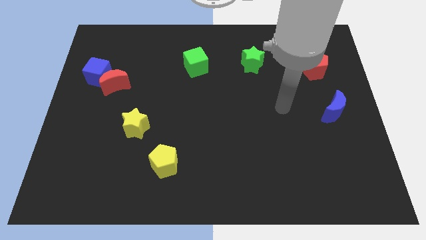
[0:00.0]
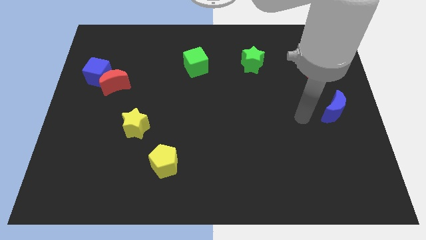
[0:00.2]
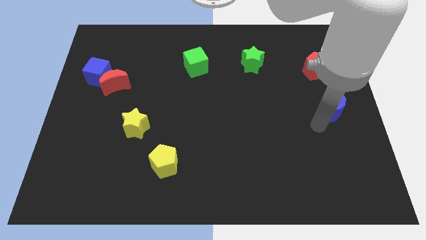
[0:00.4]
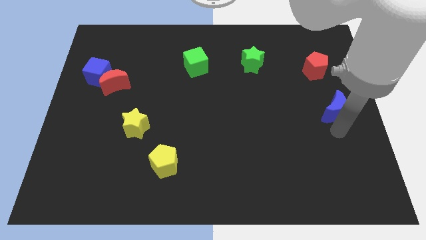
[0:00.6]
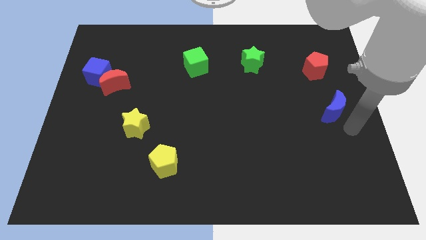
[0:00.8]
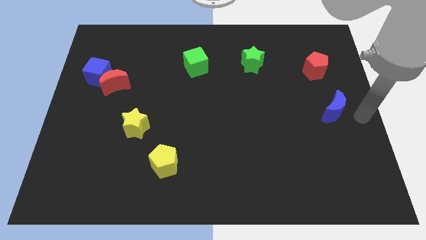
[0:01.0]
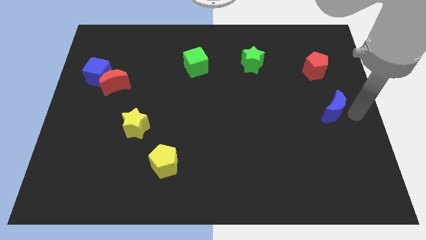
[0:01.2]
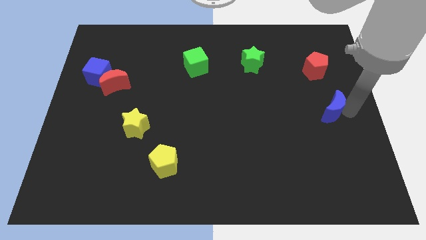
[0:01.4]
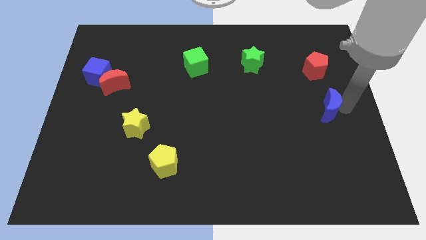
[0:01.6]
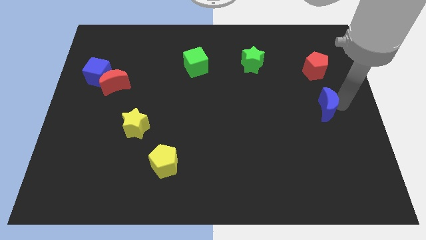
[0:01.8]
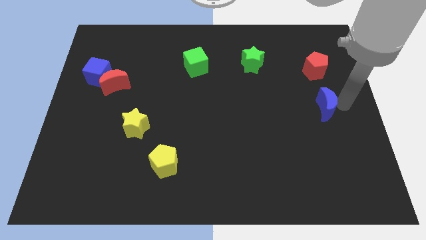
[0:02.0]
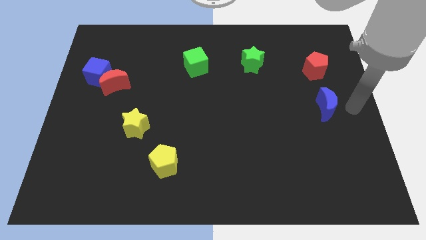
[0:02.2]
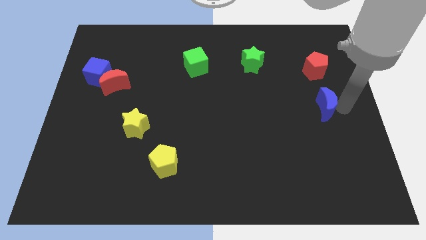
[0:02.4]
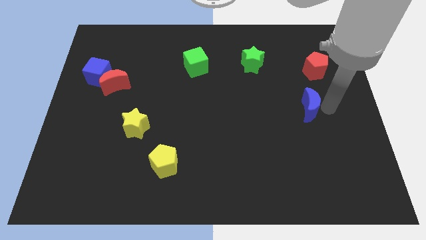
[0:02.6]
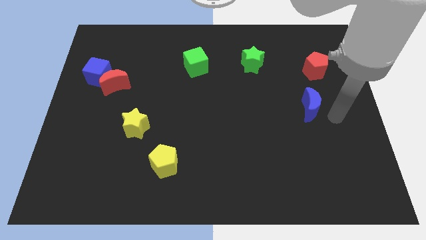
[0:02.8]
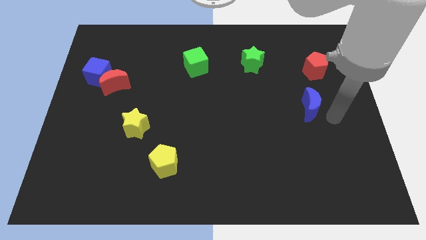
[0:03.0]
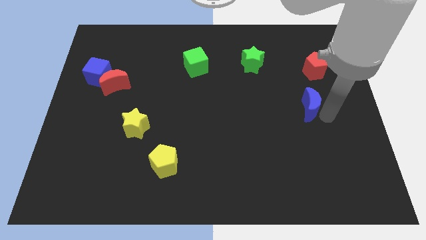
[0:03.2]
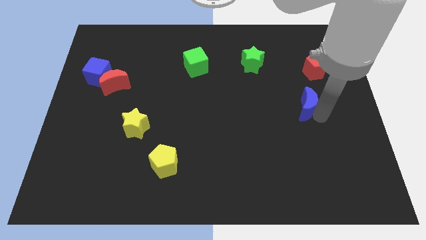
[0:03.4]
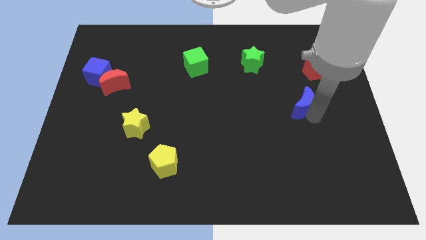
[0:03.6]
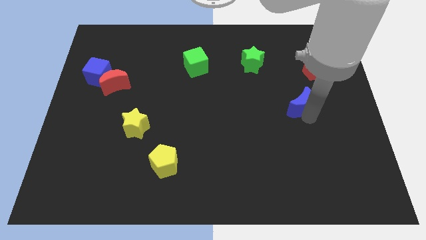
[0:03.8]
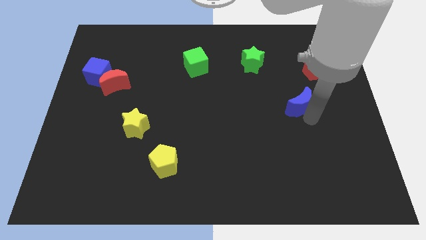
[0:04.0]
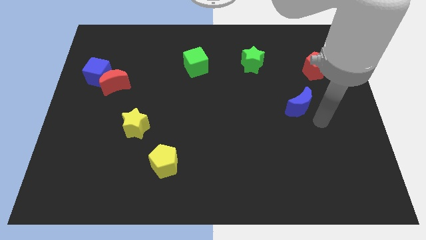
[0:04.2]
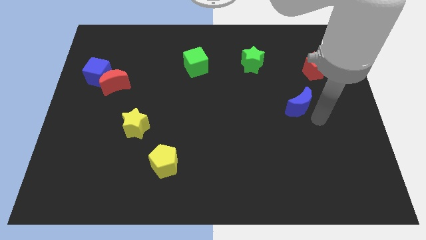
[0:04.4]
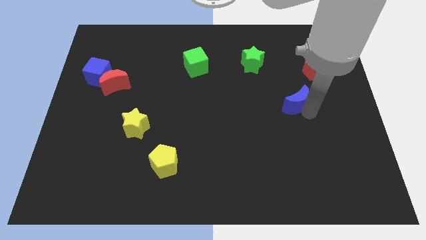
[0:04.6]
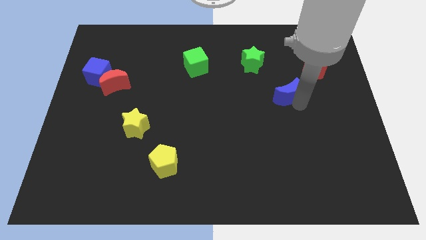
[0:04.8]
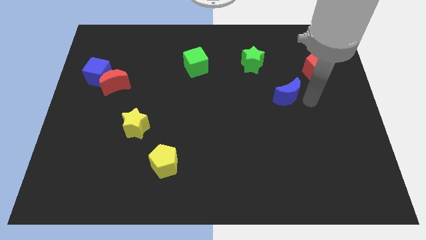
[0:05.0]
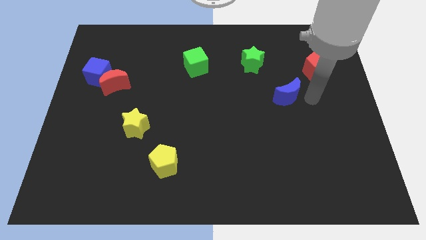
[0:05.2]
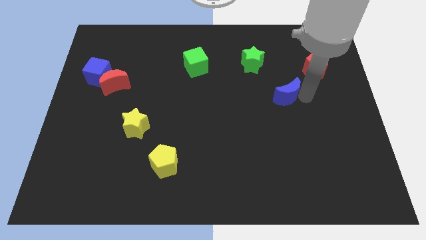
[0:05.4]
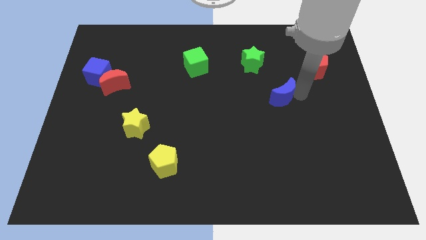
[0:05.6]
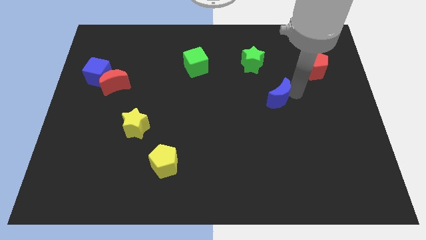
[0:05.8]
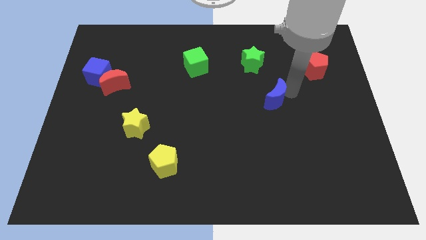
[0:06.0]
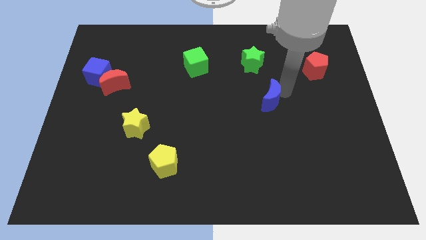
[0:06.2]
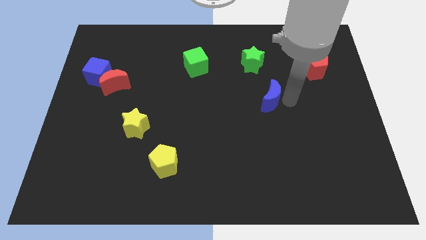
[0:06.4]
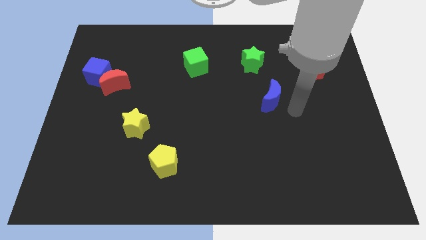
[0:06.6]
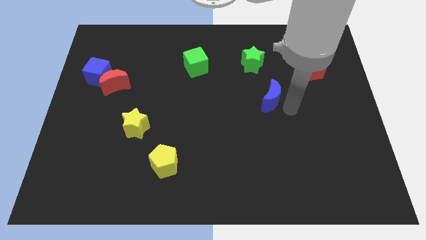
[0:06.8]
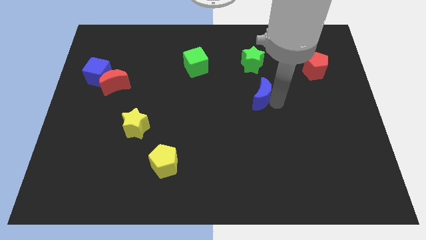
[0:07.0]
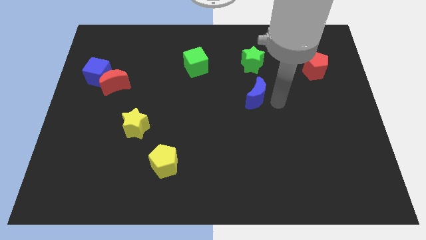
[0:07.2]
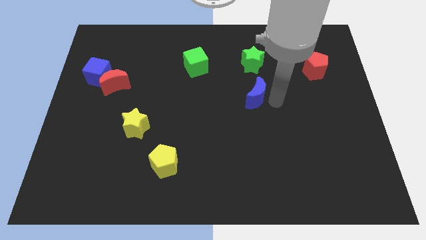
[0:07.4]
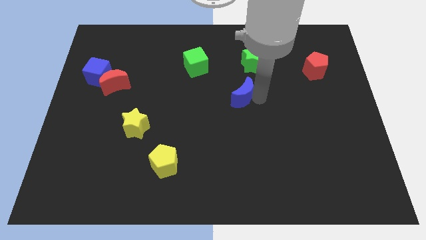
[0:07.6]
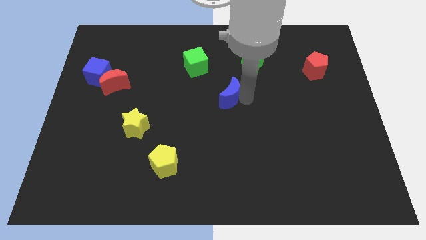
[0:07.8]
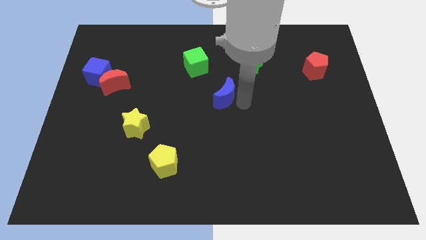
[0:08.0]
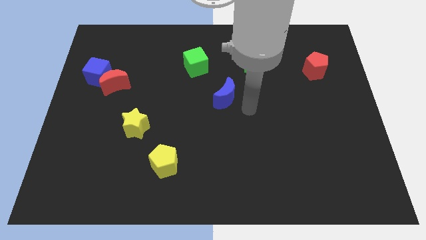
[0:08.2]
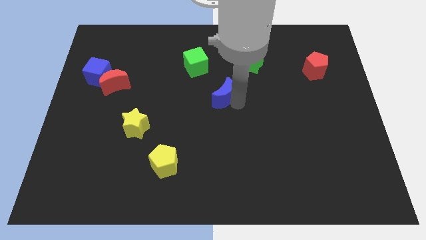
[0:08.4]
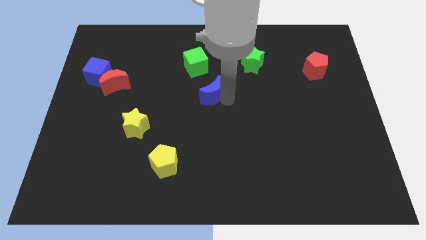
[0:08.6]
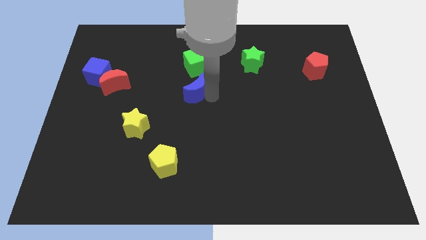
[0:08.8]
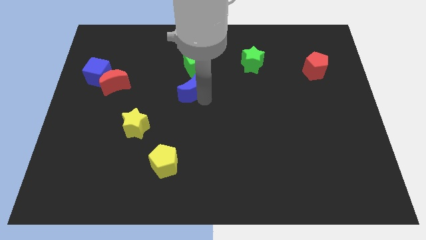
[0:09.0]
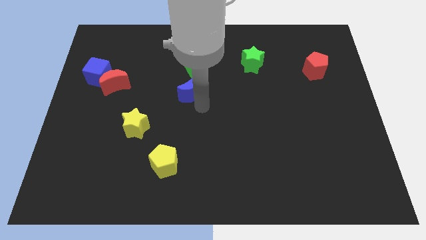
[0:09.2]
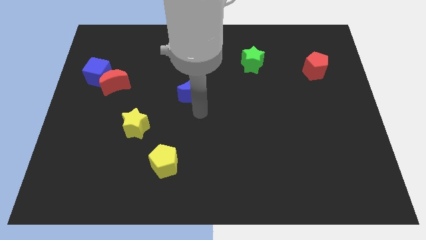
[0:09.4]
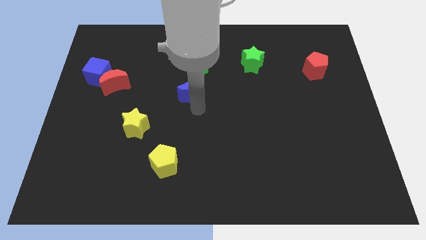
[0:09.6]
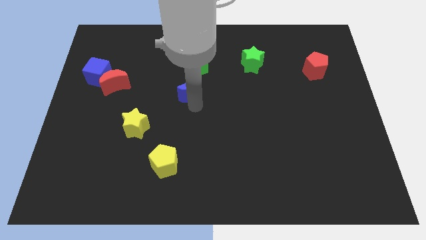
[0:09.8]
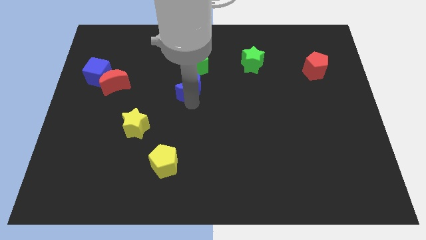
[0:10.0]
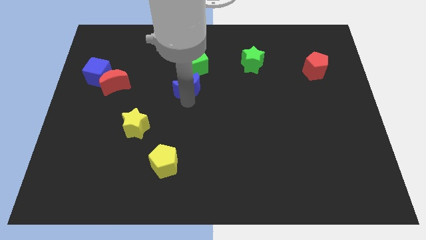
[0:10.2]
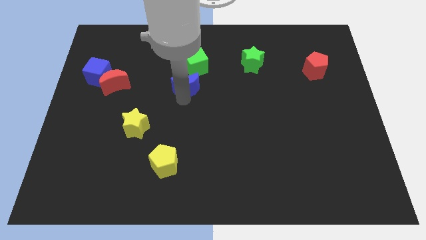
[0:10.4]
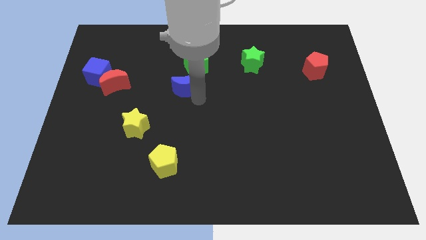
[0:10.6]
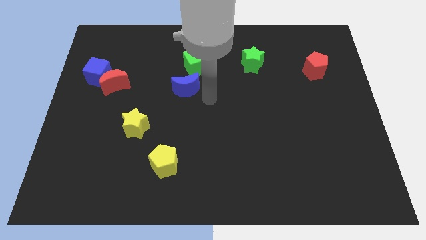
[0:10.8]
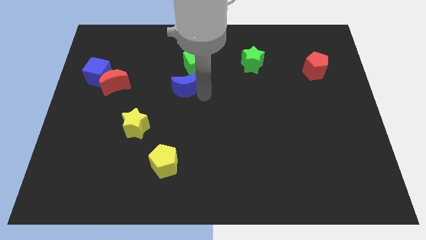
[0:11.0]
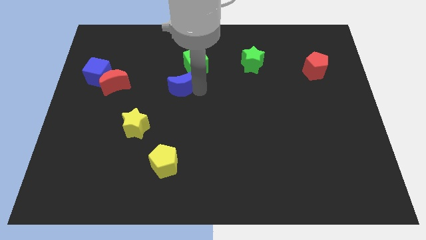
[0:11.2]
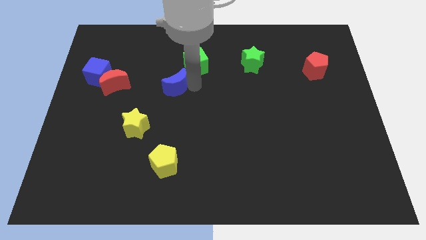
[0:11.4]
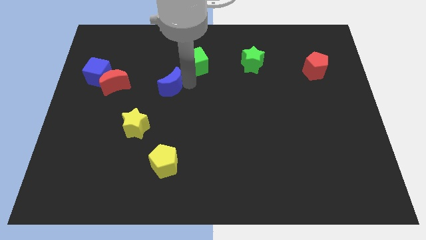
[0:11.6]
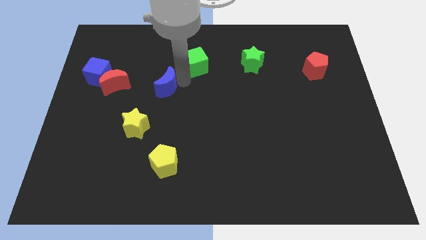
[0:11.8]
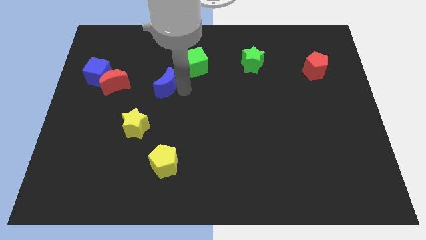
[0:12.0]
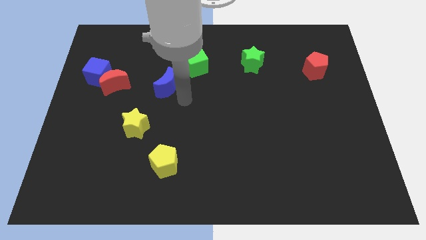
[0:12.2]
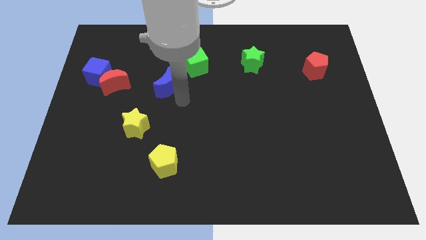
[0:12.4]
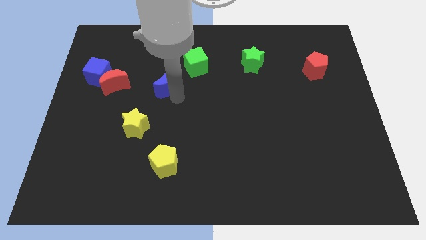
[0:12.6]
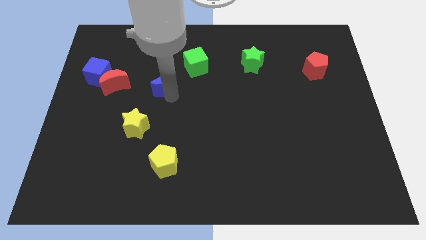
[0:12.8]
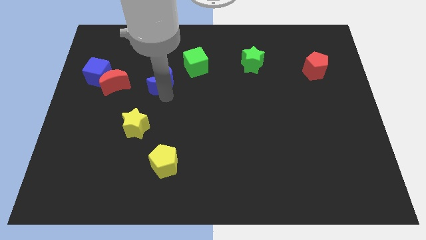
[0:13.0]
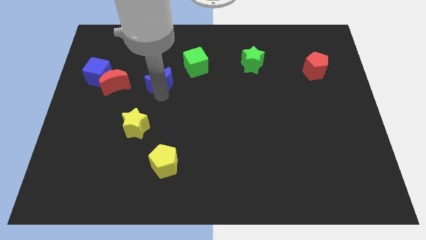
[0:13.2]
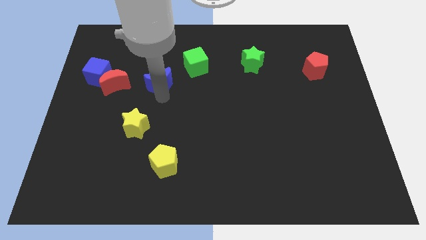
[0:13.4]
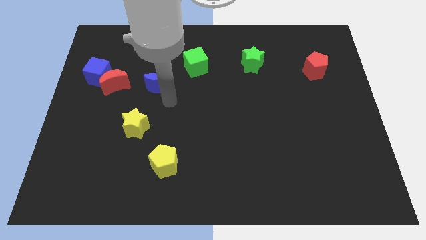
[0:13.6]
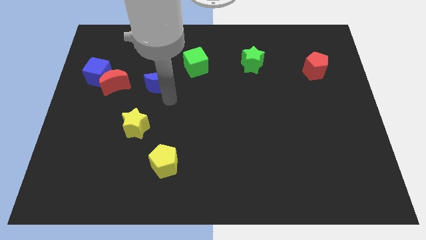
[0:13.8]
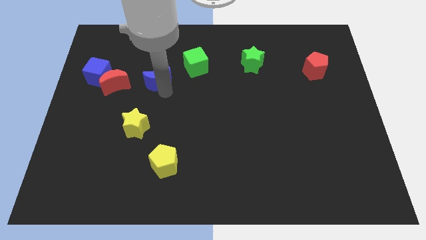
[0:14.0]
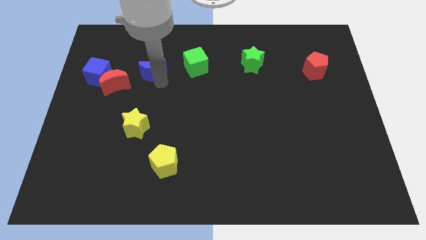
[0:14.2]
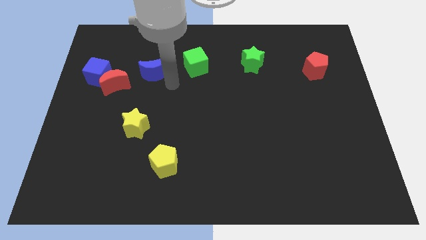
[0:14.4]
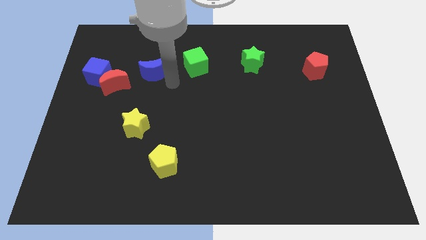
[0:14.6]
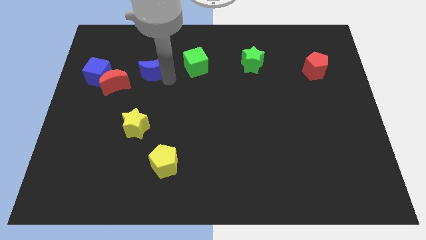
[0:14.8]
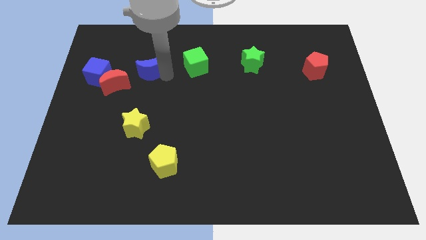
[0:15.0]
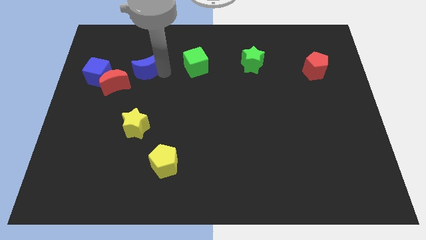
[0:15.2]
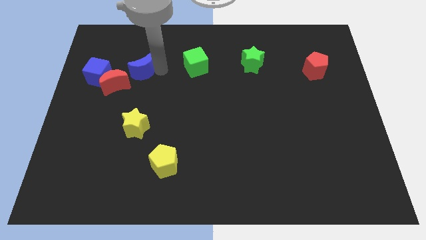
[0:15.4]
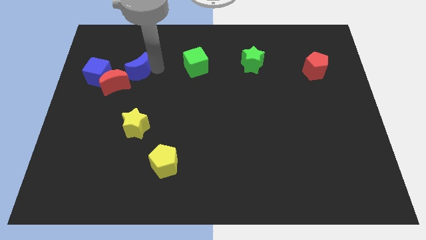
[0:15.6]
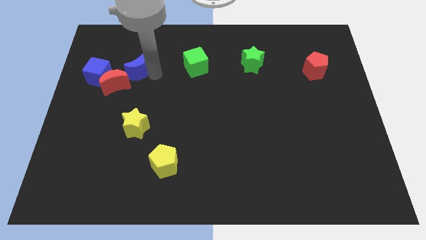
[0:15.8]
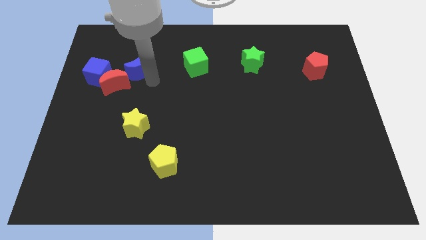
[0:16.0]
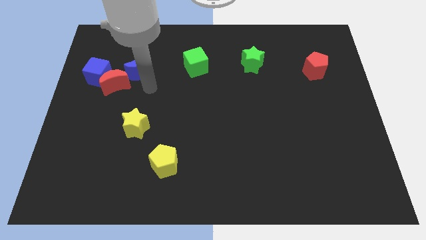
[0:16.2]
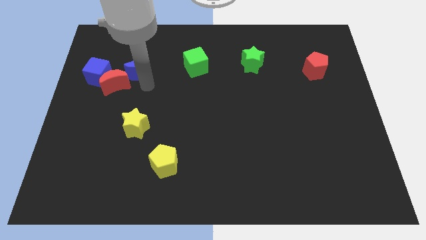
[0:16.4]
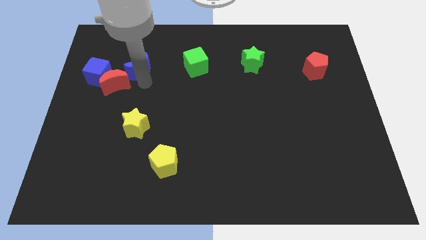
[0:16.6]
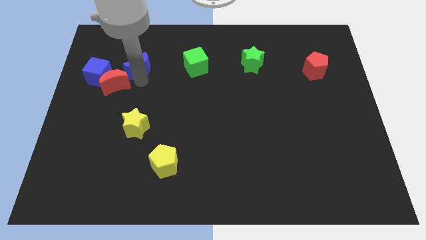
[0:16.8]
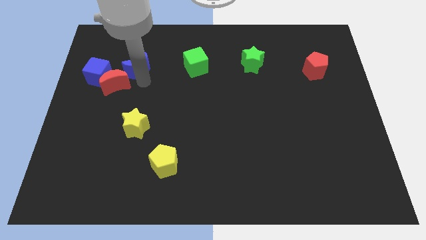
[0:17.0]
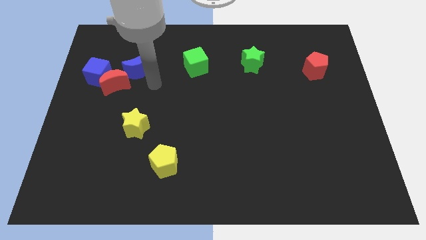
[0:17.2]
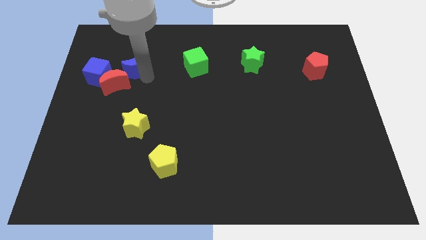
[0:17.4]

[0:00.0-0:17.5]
put the blue moon to the top side of the red moon
